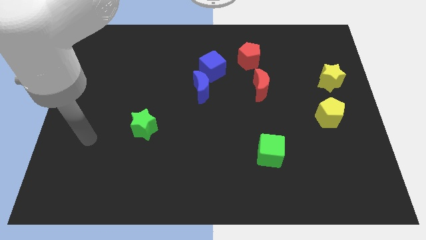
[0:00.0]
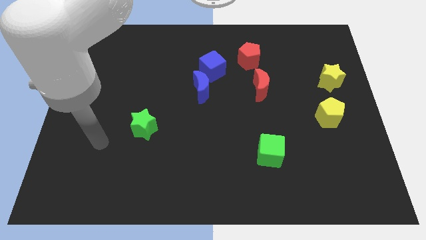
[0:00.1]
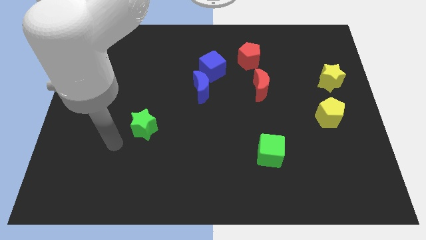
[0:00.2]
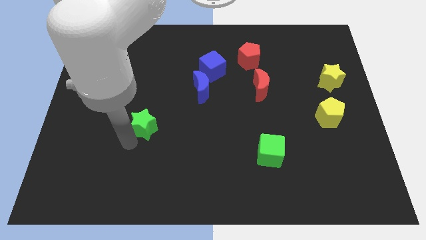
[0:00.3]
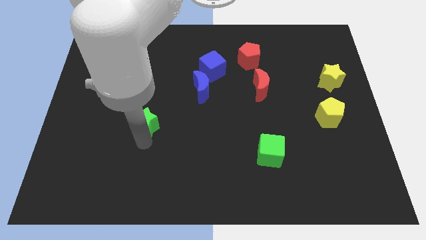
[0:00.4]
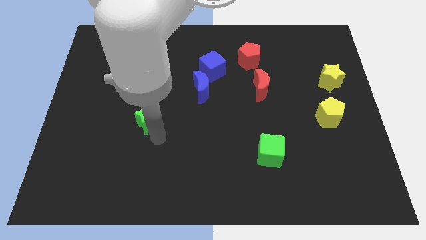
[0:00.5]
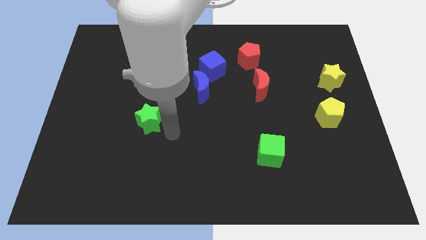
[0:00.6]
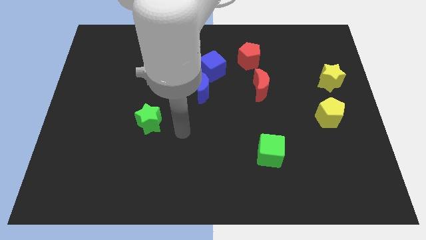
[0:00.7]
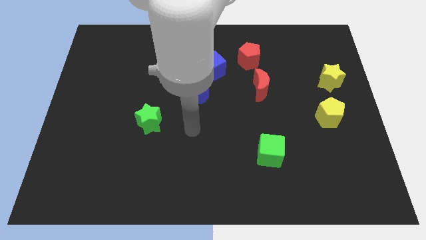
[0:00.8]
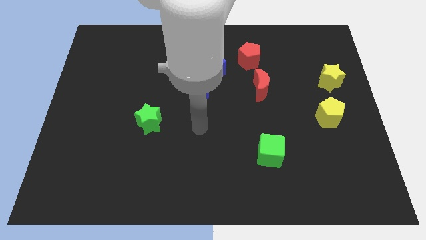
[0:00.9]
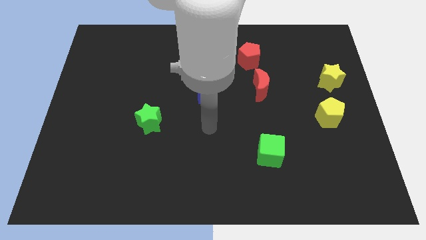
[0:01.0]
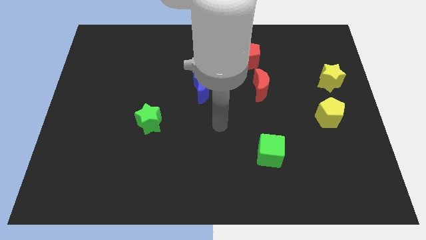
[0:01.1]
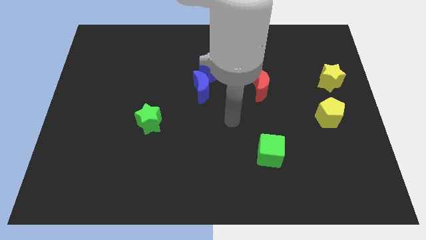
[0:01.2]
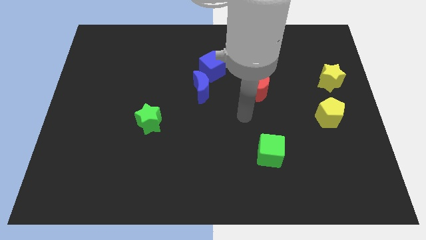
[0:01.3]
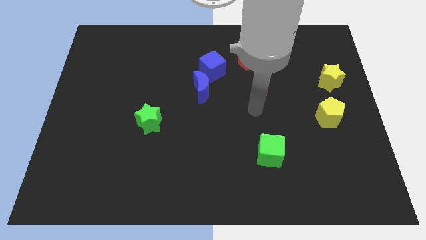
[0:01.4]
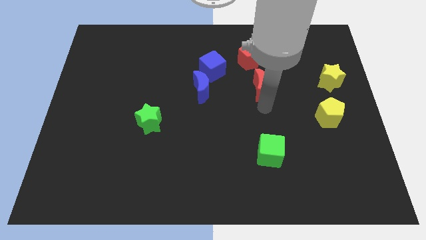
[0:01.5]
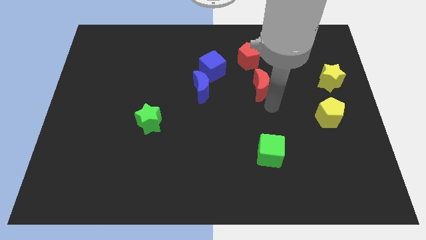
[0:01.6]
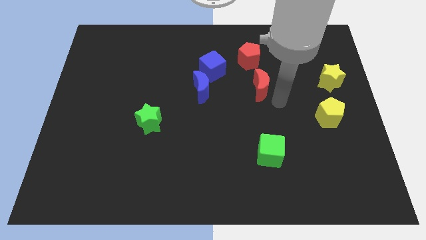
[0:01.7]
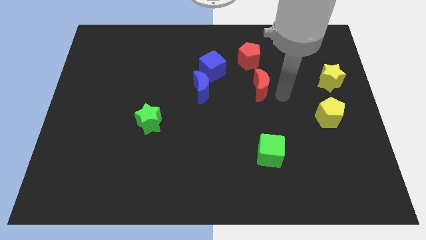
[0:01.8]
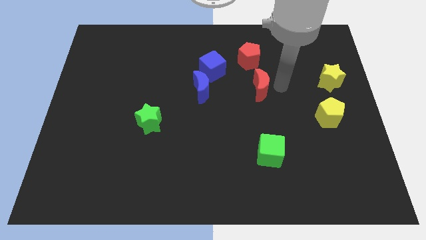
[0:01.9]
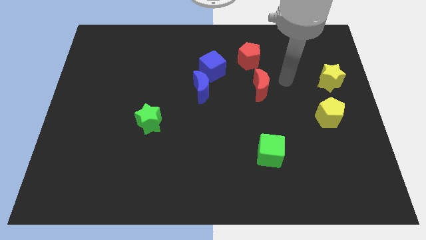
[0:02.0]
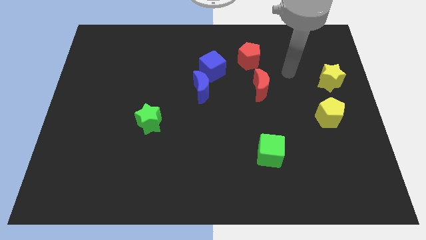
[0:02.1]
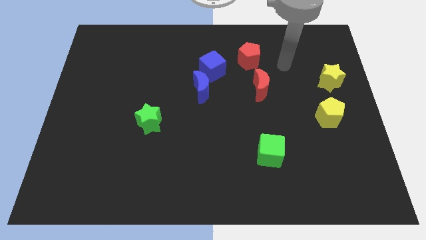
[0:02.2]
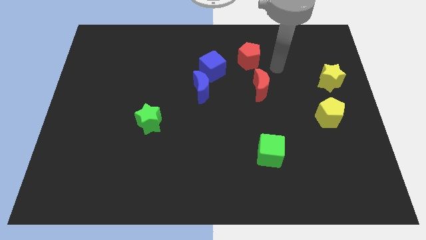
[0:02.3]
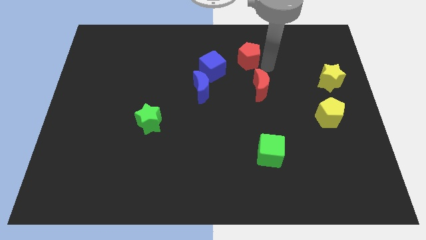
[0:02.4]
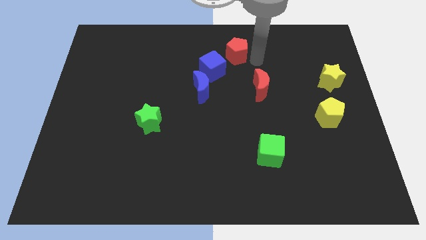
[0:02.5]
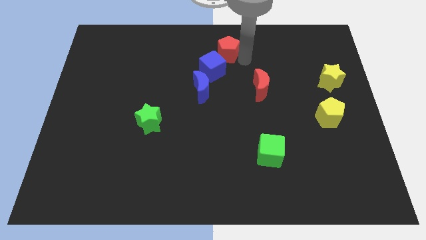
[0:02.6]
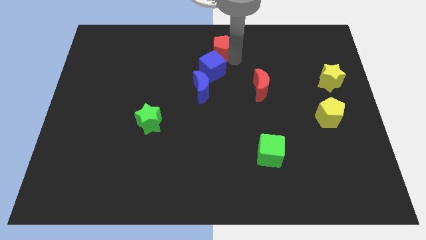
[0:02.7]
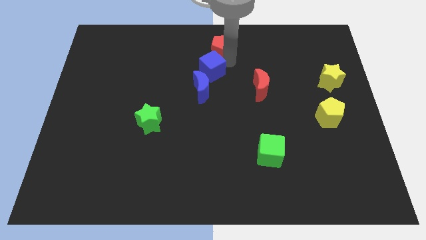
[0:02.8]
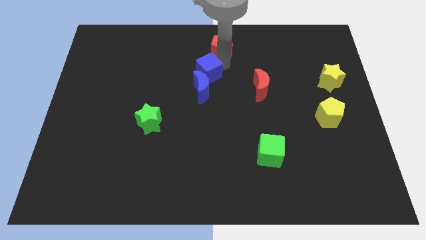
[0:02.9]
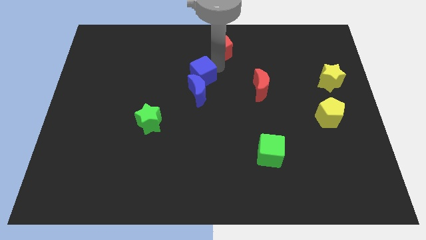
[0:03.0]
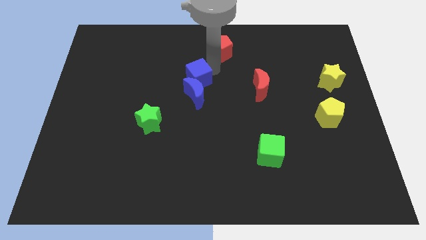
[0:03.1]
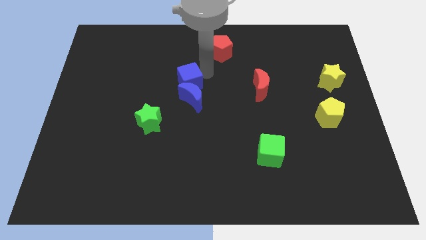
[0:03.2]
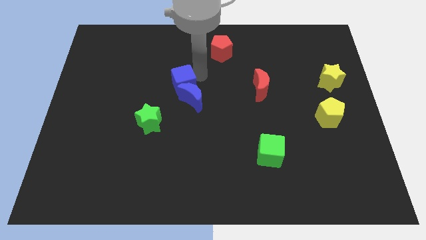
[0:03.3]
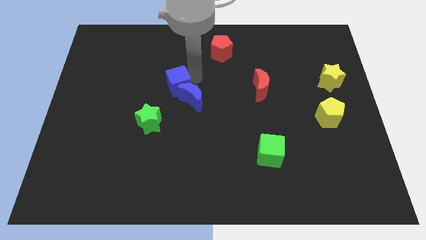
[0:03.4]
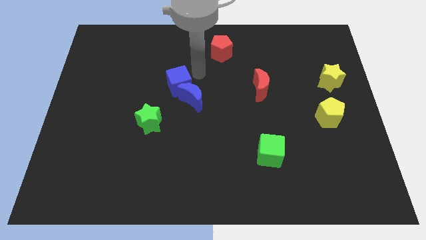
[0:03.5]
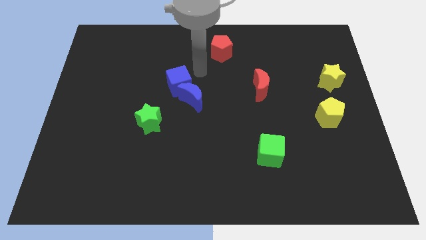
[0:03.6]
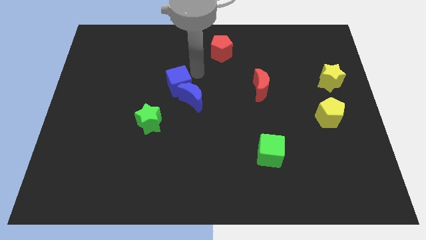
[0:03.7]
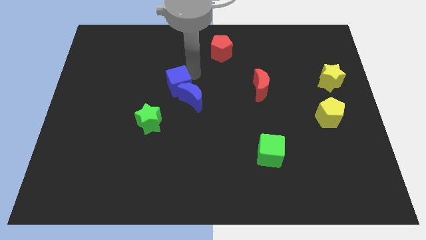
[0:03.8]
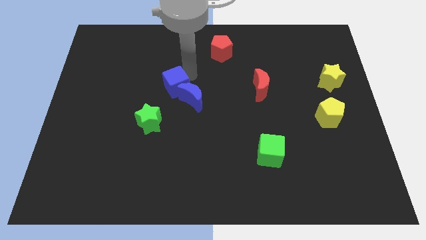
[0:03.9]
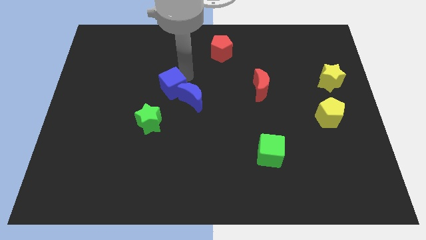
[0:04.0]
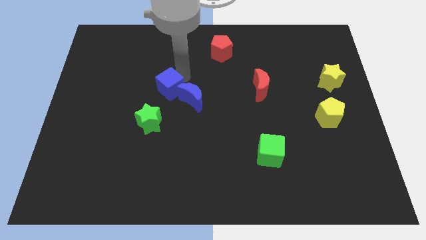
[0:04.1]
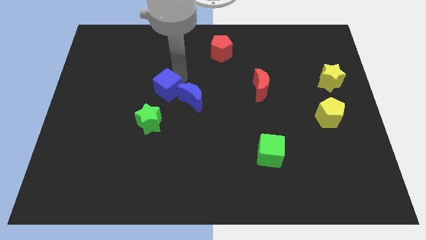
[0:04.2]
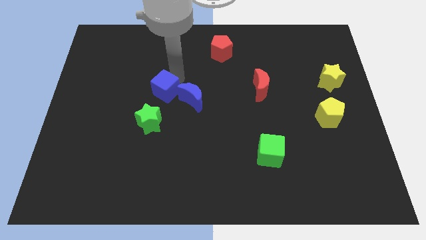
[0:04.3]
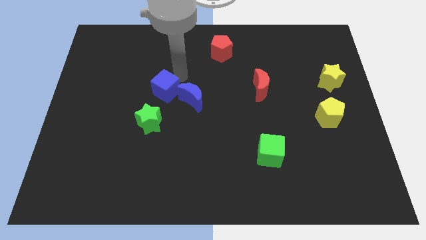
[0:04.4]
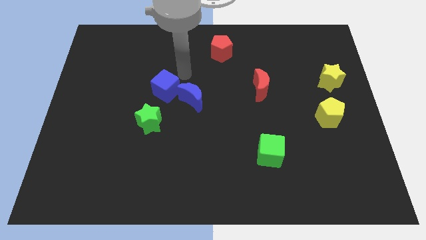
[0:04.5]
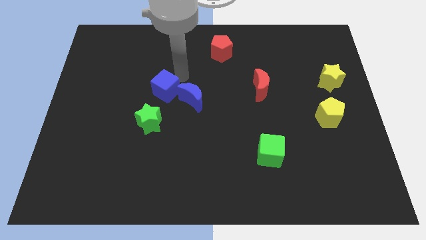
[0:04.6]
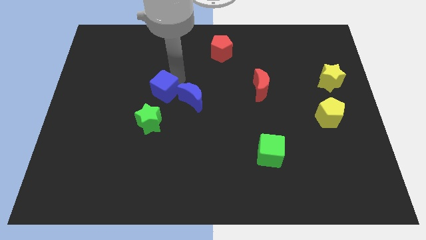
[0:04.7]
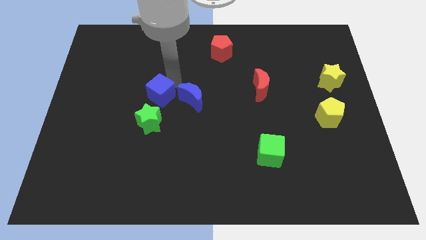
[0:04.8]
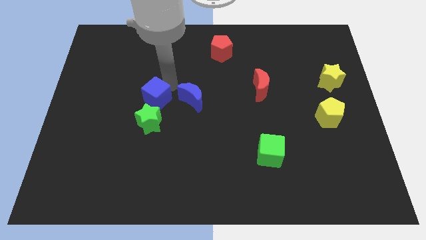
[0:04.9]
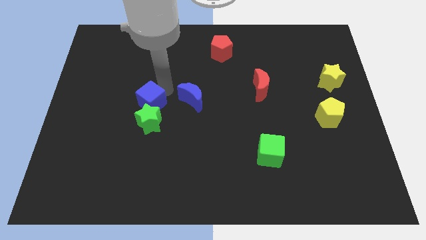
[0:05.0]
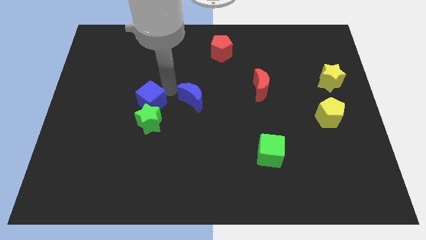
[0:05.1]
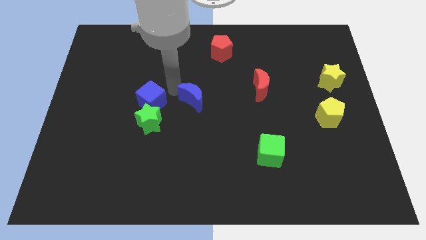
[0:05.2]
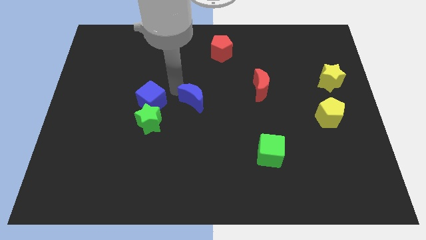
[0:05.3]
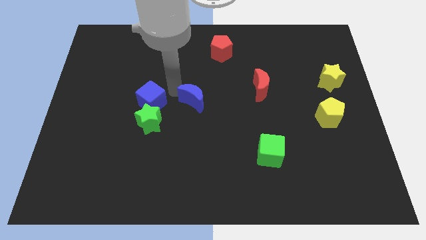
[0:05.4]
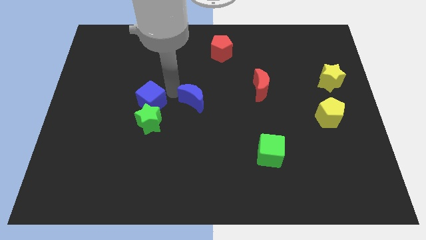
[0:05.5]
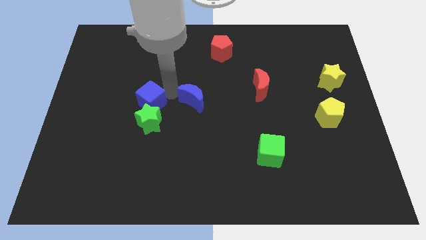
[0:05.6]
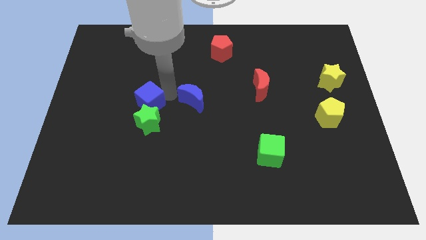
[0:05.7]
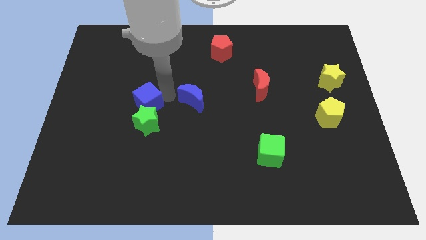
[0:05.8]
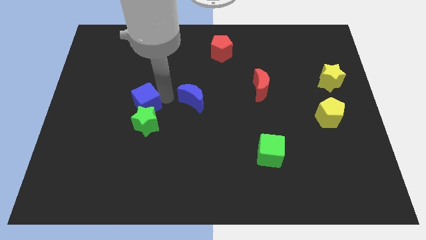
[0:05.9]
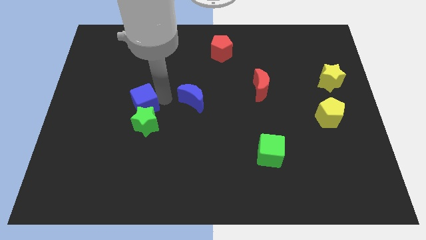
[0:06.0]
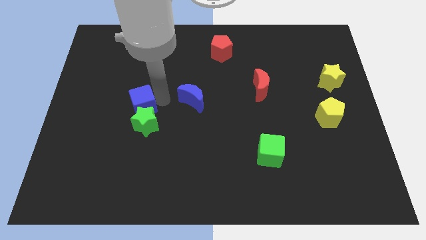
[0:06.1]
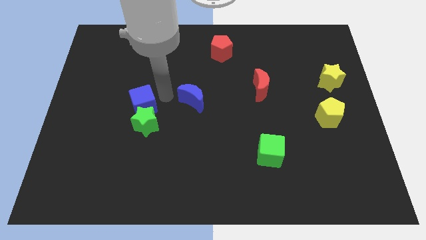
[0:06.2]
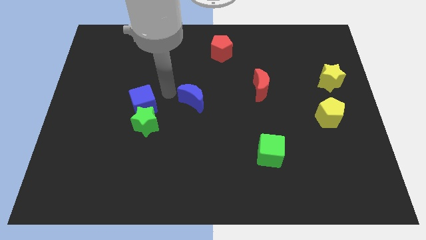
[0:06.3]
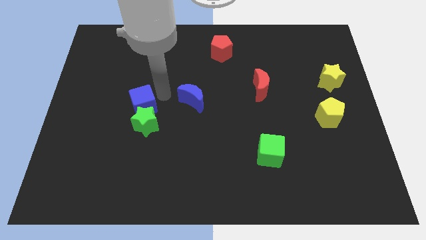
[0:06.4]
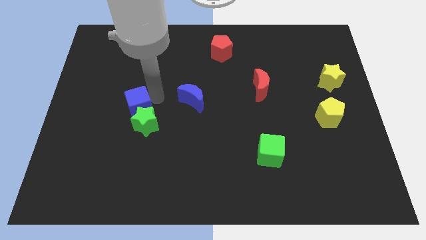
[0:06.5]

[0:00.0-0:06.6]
slide the blue cube down and then left

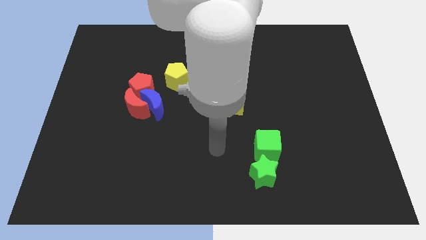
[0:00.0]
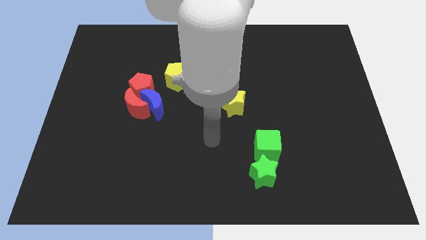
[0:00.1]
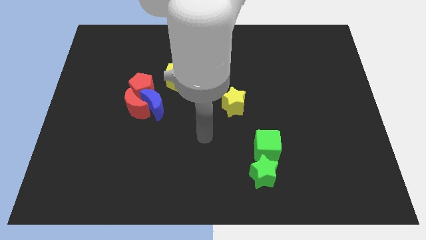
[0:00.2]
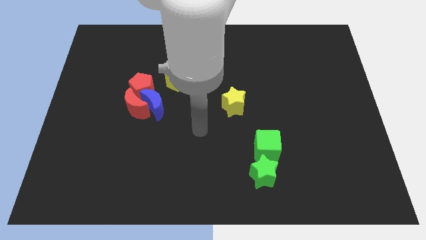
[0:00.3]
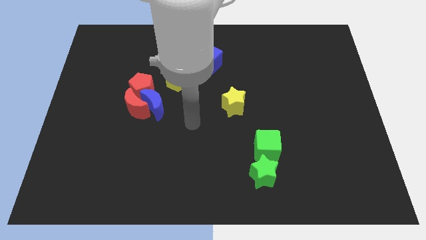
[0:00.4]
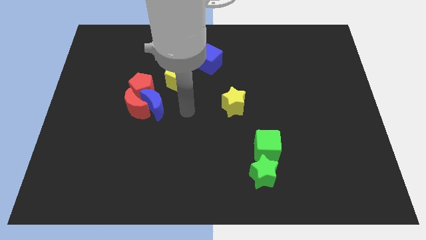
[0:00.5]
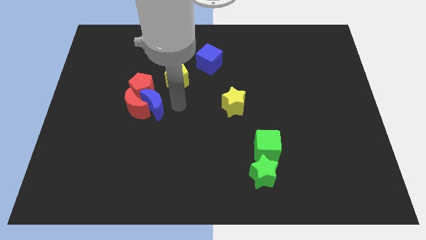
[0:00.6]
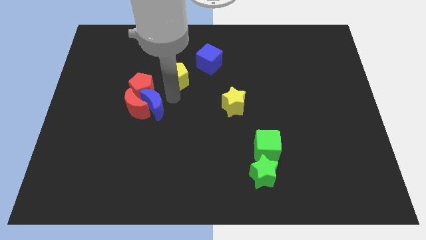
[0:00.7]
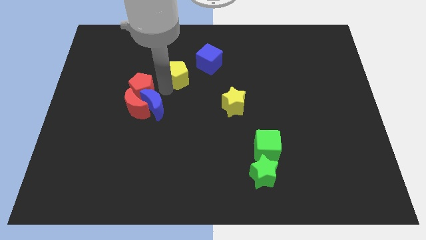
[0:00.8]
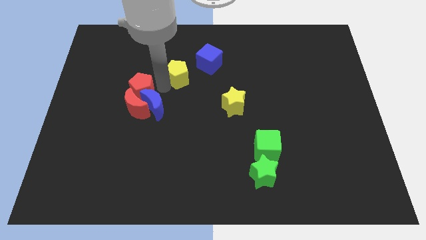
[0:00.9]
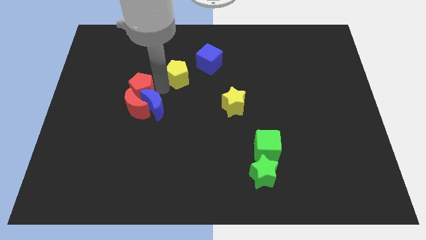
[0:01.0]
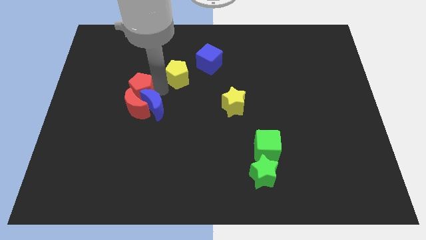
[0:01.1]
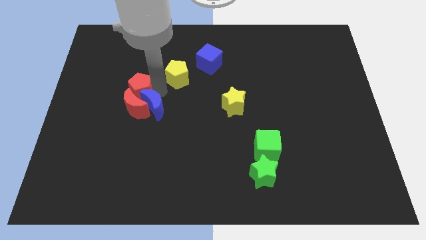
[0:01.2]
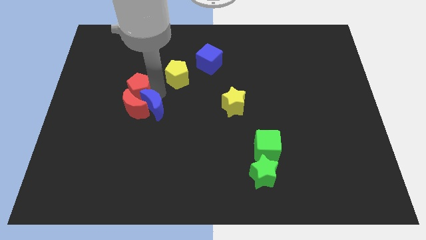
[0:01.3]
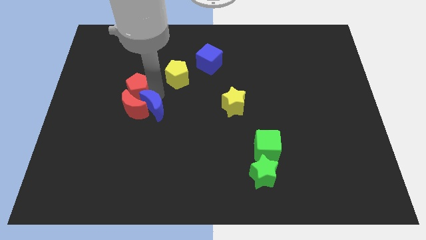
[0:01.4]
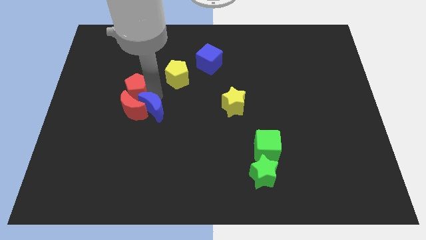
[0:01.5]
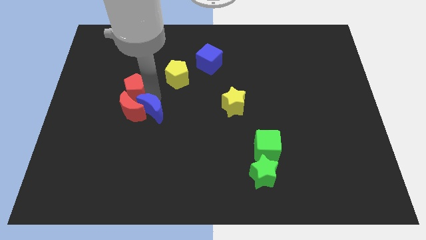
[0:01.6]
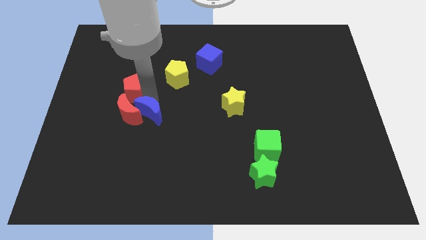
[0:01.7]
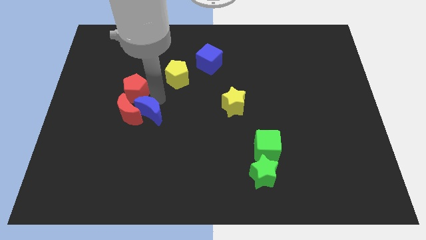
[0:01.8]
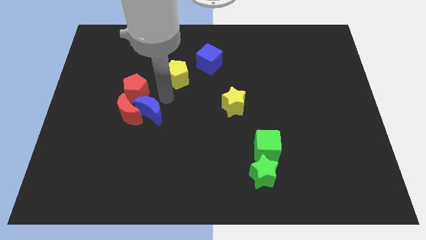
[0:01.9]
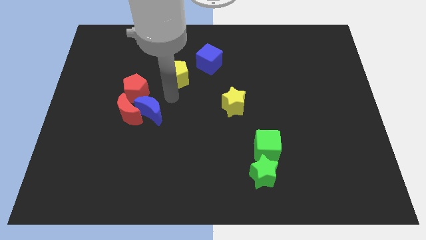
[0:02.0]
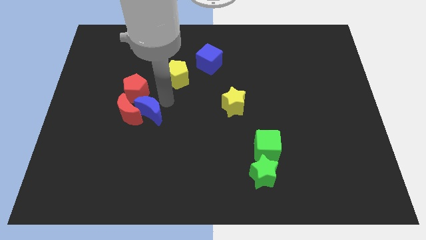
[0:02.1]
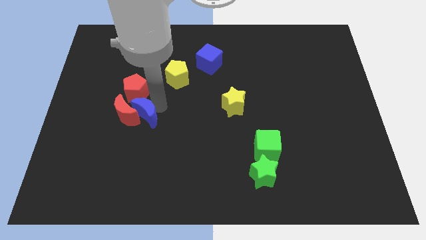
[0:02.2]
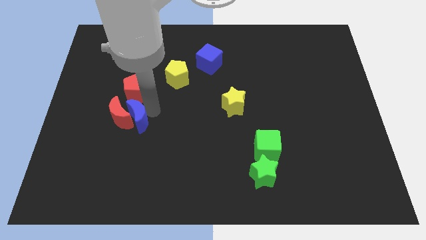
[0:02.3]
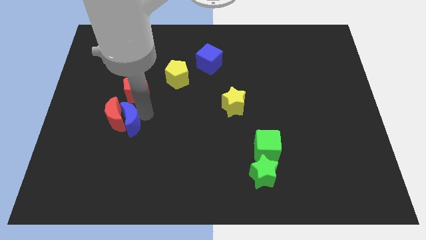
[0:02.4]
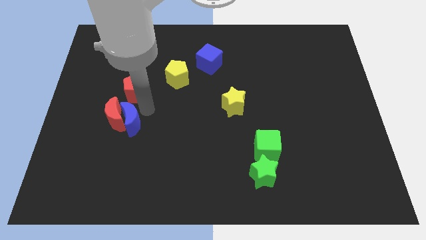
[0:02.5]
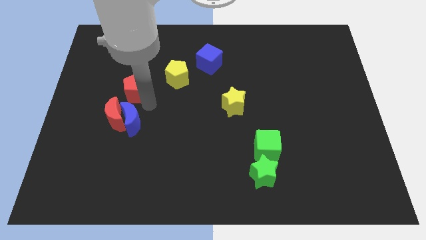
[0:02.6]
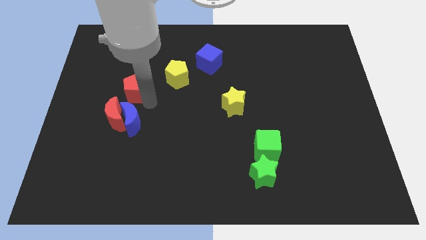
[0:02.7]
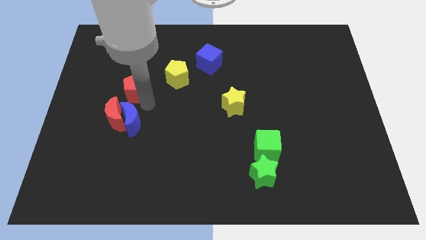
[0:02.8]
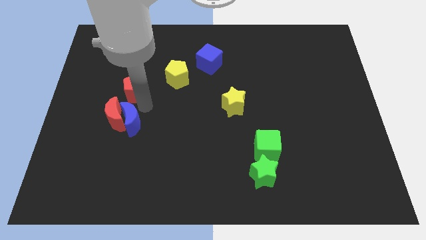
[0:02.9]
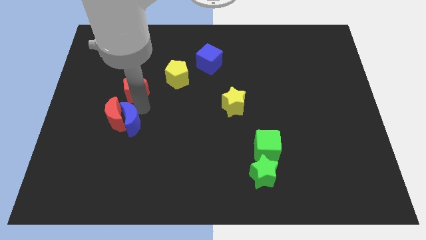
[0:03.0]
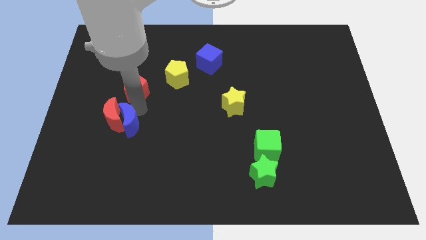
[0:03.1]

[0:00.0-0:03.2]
push the blue moon a bit downwards and left
